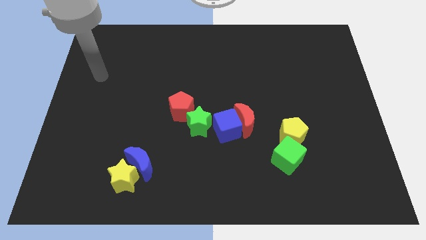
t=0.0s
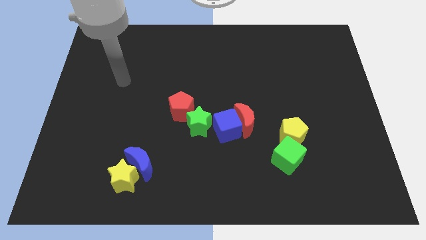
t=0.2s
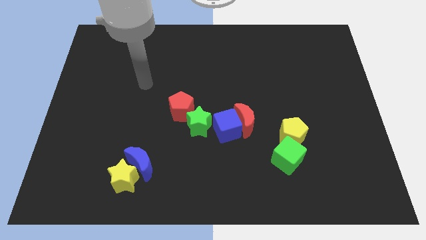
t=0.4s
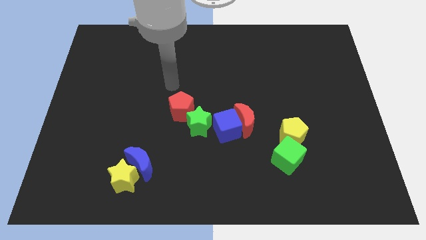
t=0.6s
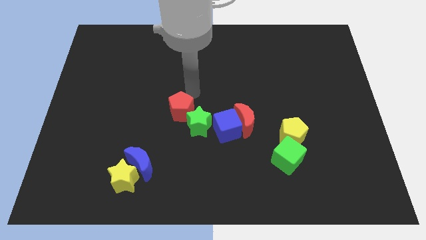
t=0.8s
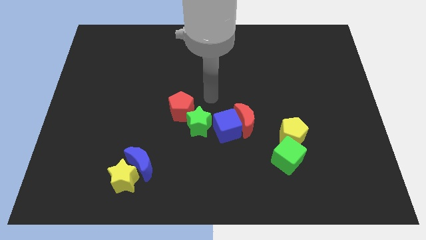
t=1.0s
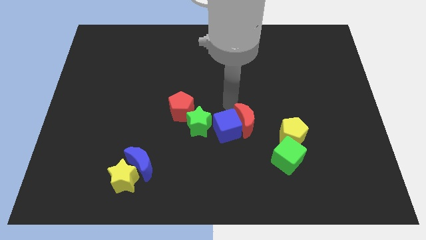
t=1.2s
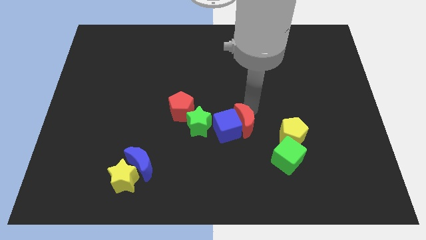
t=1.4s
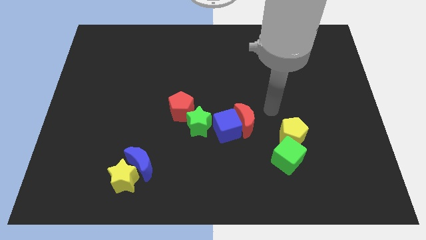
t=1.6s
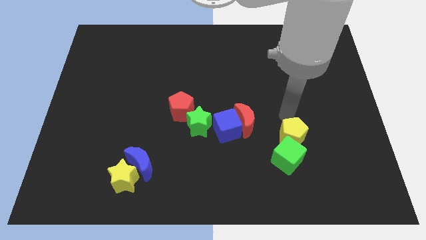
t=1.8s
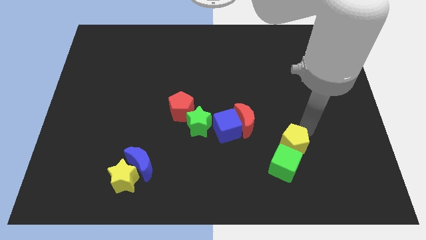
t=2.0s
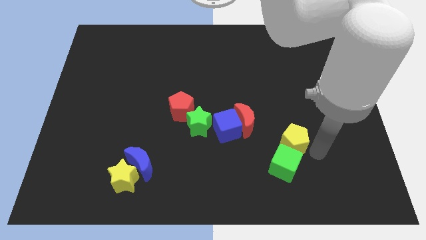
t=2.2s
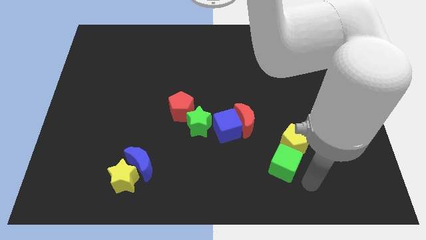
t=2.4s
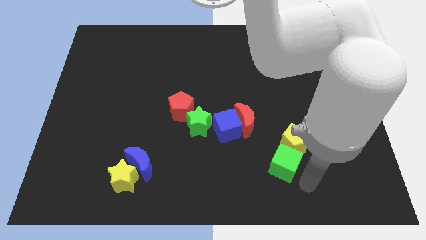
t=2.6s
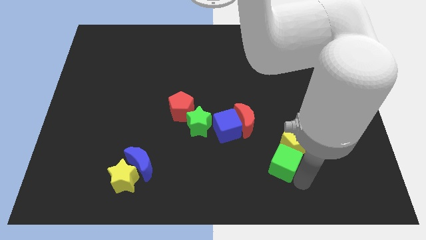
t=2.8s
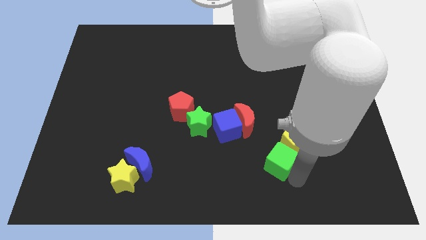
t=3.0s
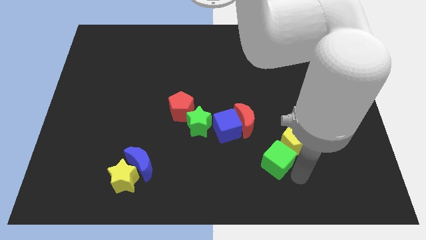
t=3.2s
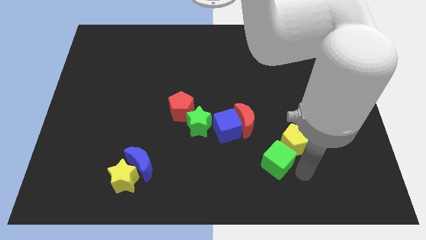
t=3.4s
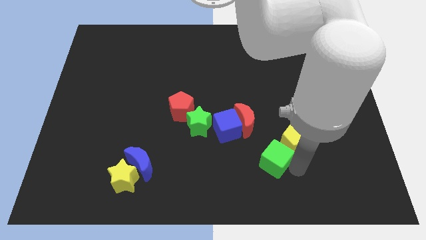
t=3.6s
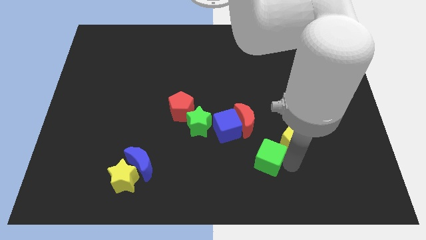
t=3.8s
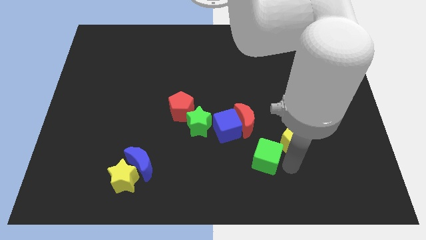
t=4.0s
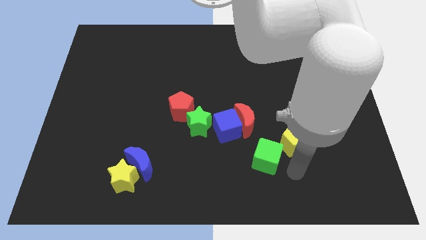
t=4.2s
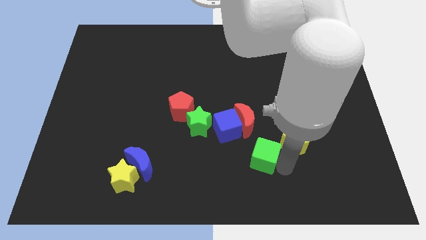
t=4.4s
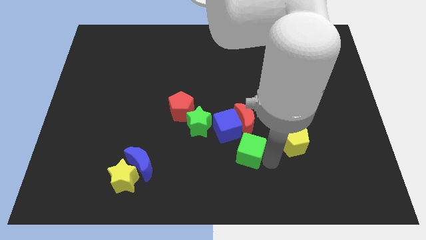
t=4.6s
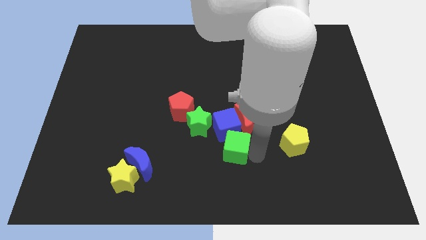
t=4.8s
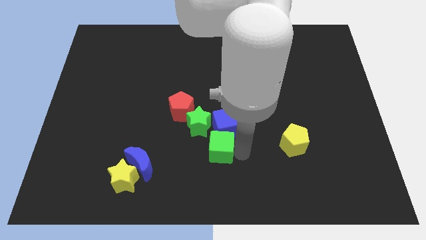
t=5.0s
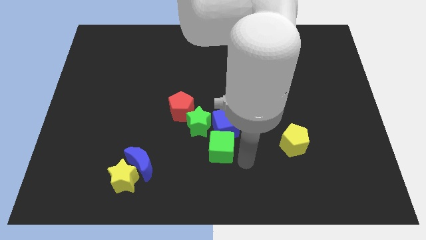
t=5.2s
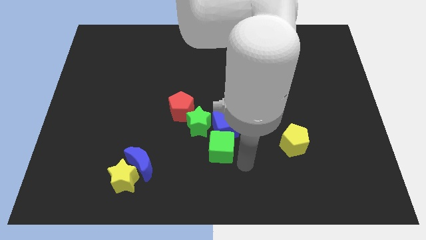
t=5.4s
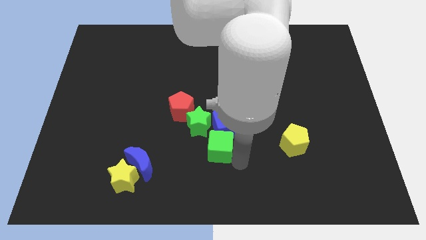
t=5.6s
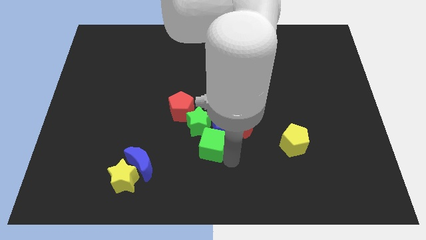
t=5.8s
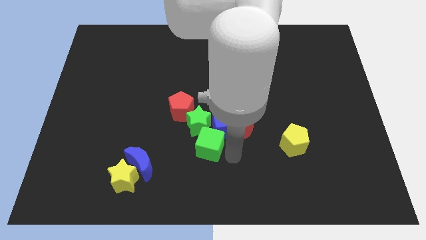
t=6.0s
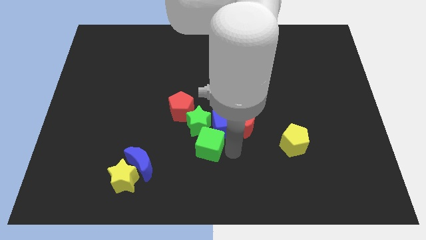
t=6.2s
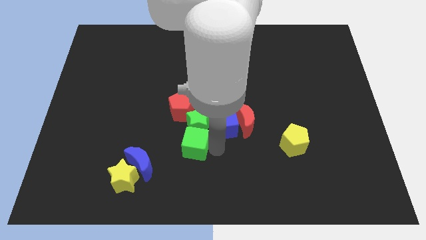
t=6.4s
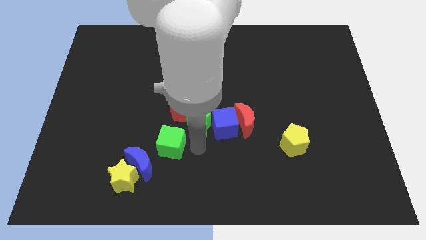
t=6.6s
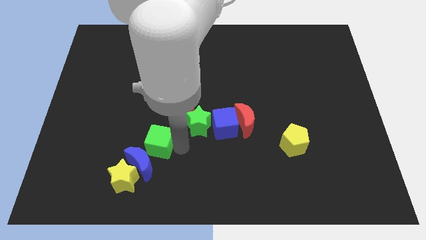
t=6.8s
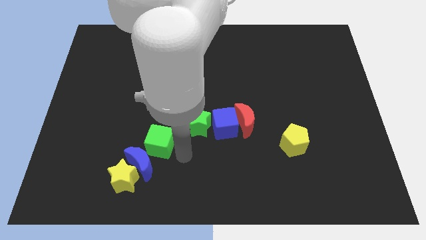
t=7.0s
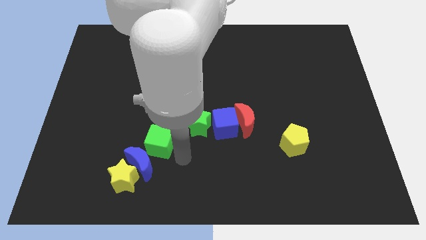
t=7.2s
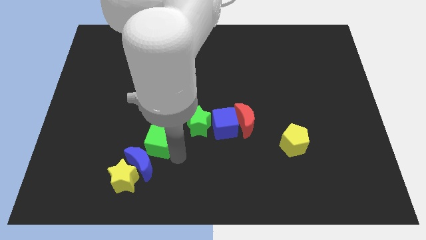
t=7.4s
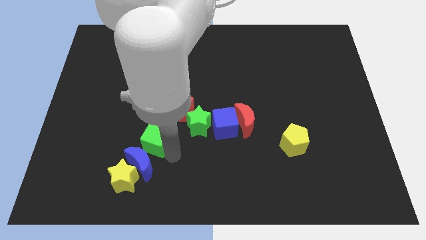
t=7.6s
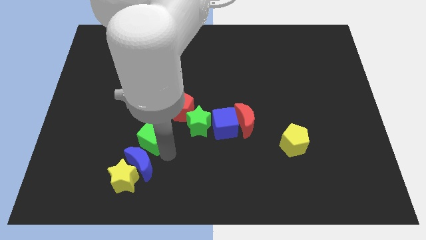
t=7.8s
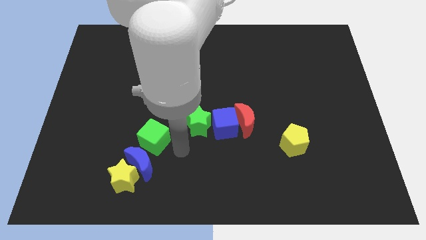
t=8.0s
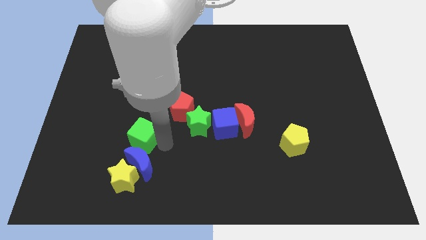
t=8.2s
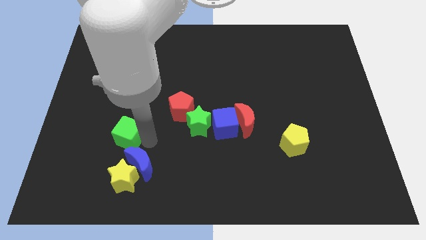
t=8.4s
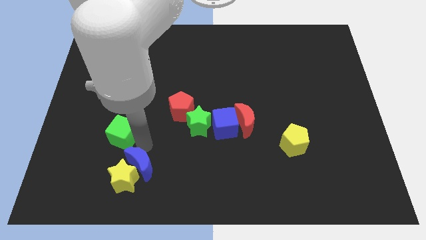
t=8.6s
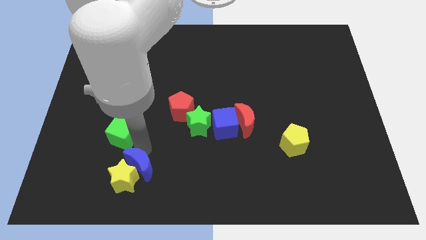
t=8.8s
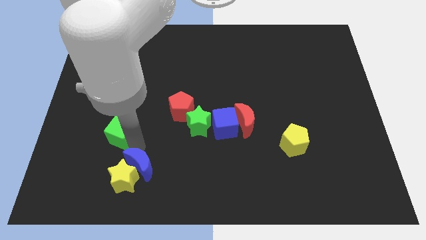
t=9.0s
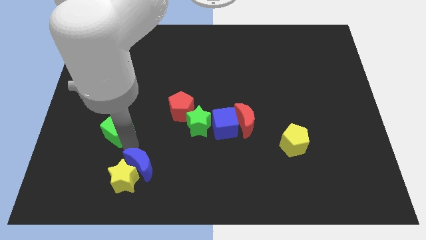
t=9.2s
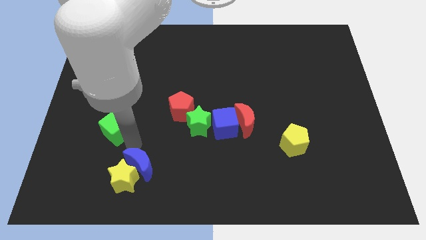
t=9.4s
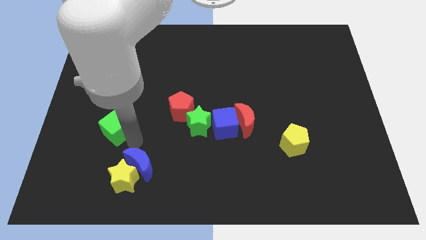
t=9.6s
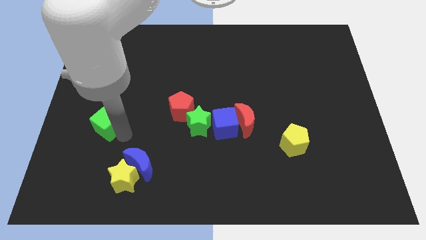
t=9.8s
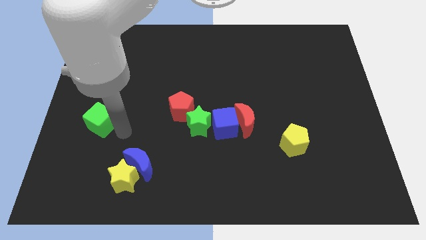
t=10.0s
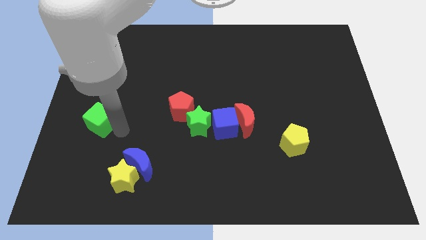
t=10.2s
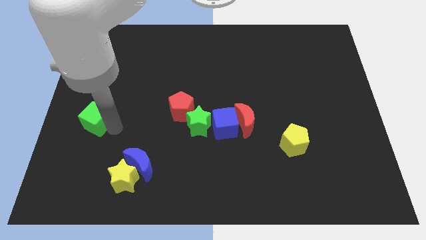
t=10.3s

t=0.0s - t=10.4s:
push the green cube to the left side of the board

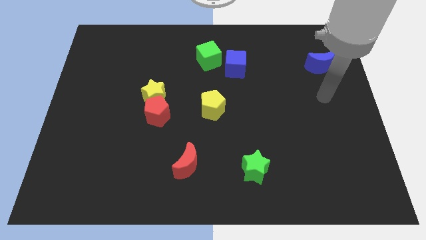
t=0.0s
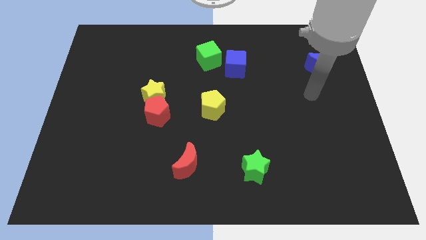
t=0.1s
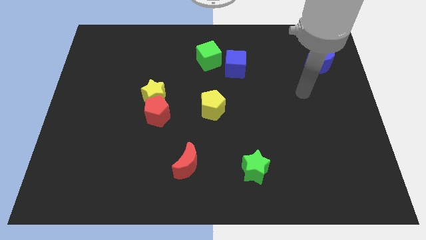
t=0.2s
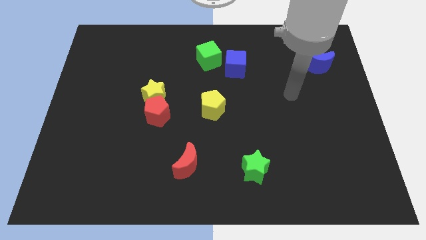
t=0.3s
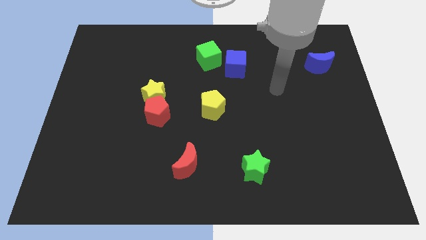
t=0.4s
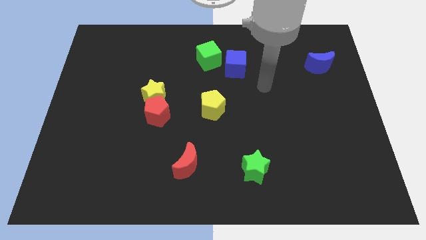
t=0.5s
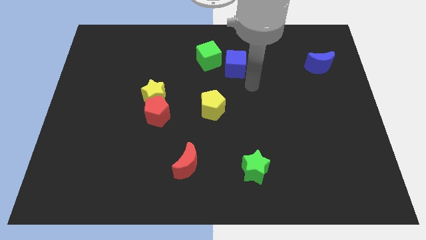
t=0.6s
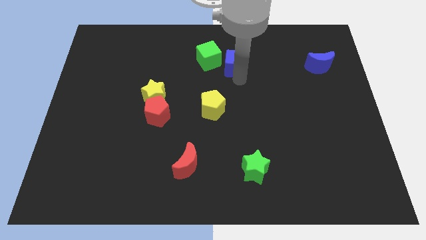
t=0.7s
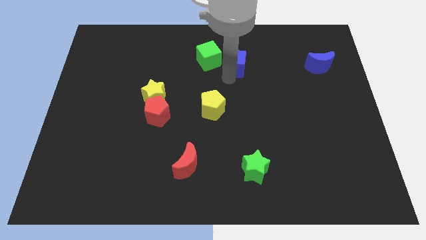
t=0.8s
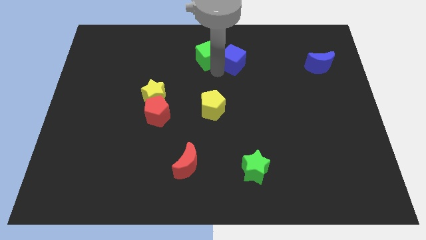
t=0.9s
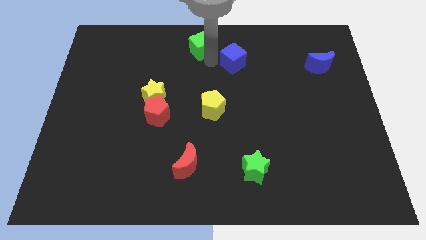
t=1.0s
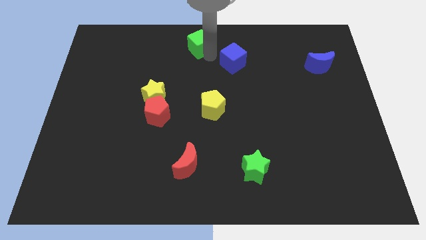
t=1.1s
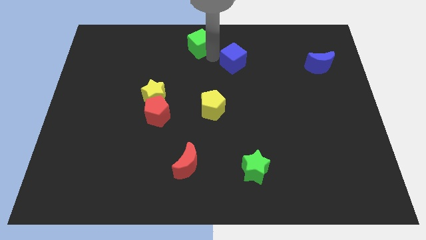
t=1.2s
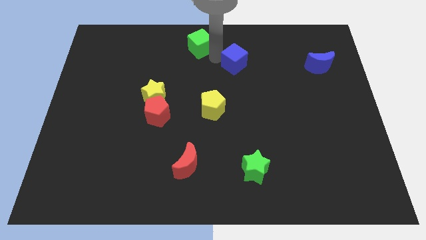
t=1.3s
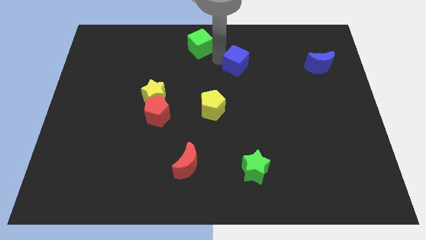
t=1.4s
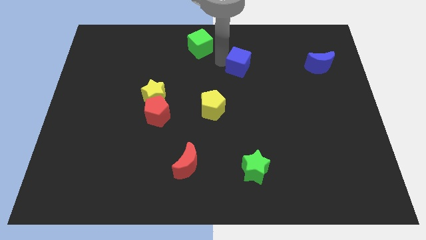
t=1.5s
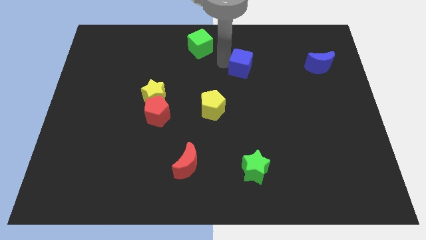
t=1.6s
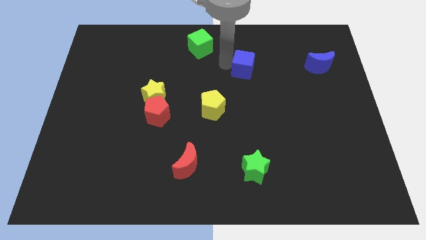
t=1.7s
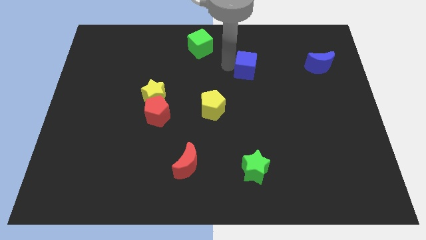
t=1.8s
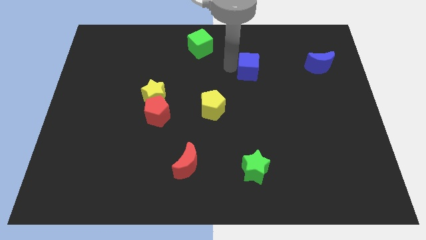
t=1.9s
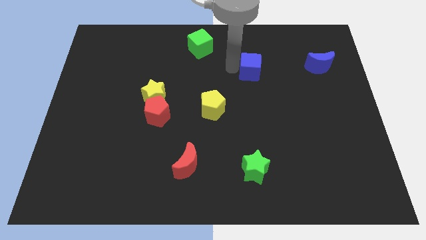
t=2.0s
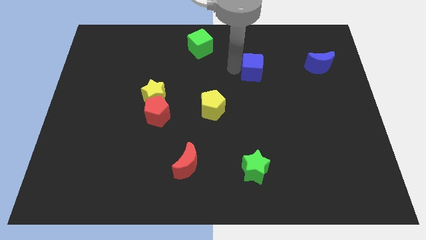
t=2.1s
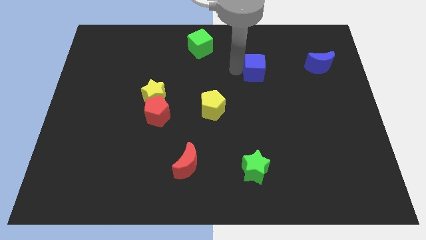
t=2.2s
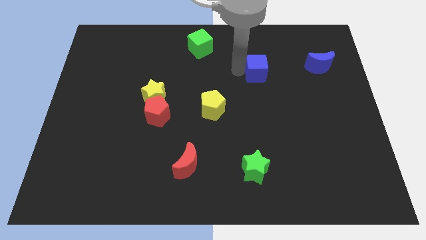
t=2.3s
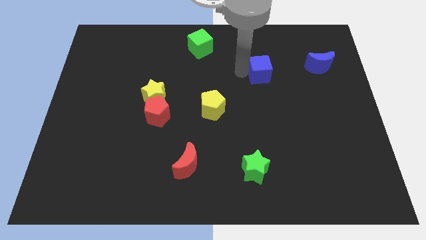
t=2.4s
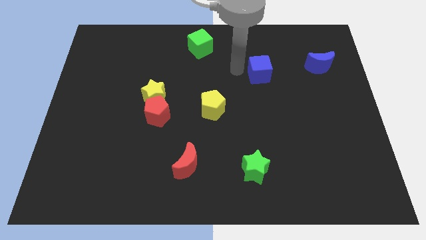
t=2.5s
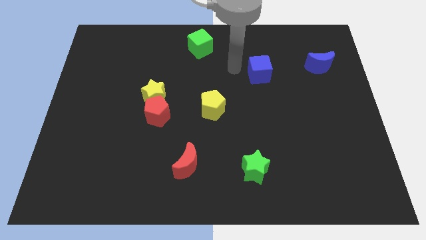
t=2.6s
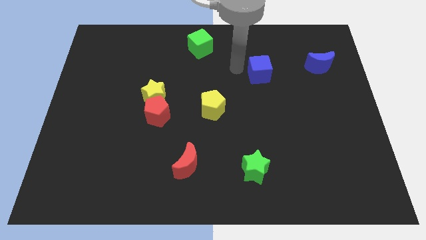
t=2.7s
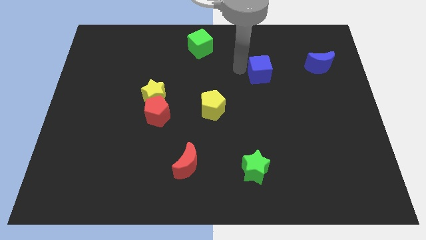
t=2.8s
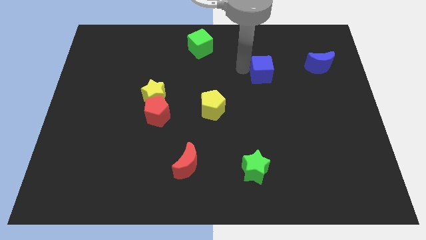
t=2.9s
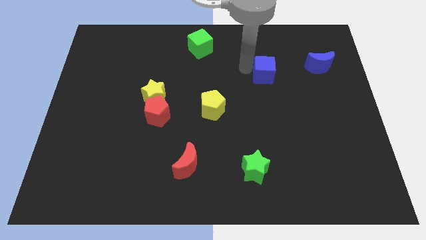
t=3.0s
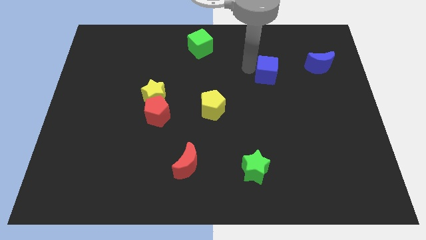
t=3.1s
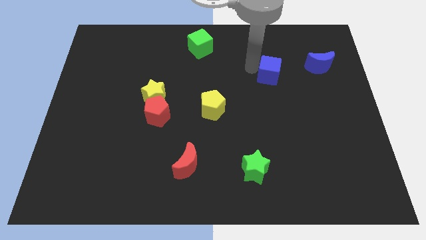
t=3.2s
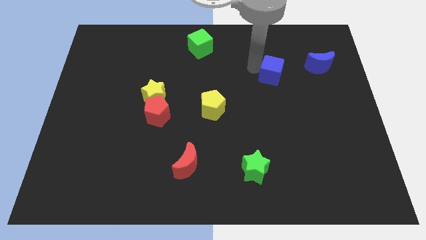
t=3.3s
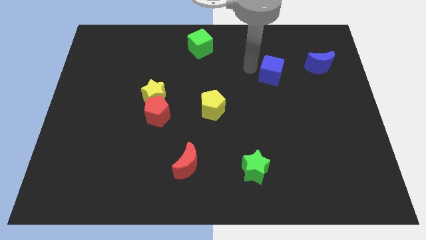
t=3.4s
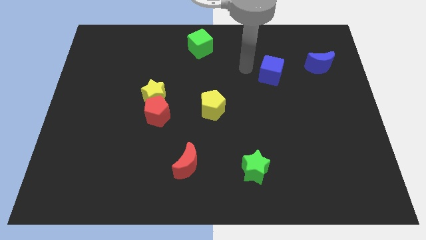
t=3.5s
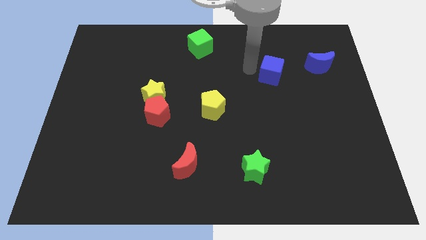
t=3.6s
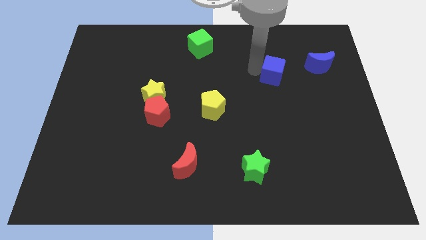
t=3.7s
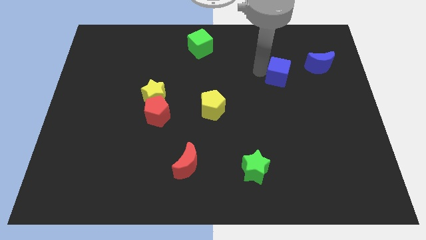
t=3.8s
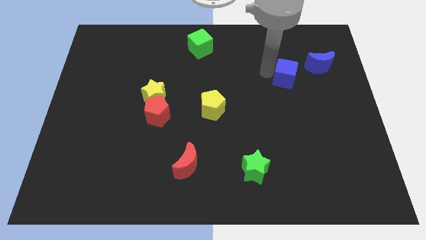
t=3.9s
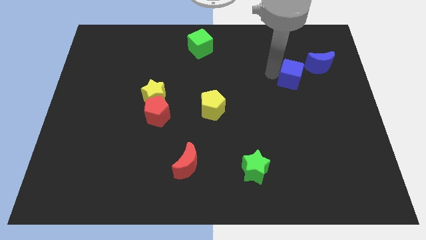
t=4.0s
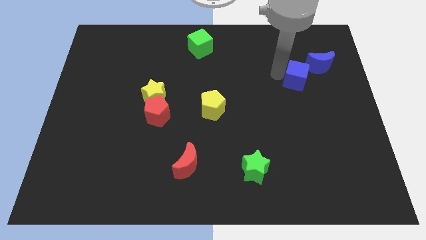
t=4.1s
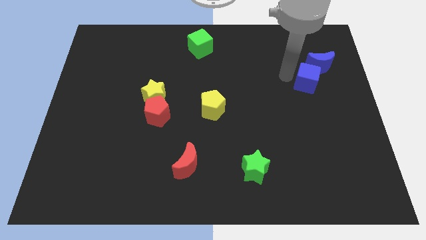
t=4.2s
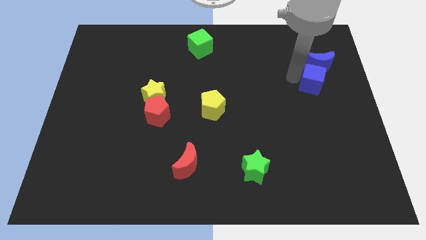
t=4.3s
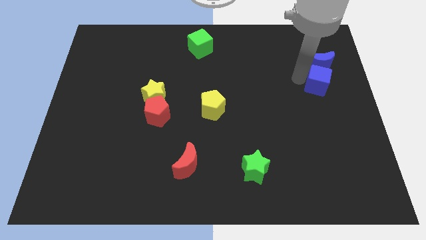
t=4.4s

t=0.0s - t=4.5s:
slide the blue cube to the right side
